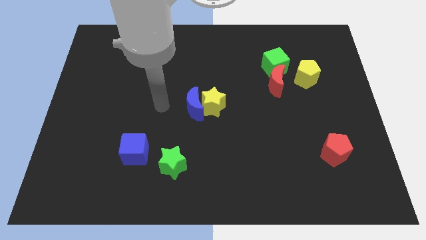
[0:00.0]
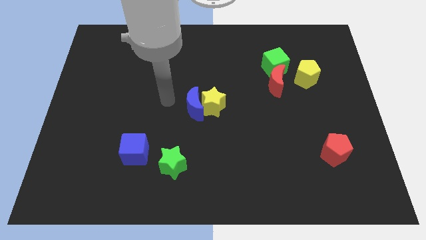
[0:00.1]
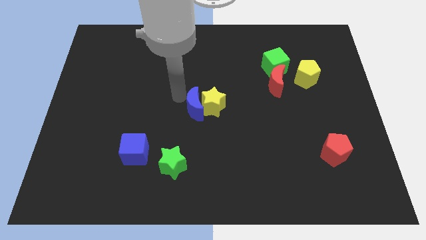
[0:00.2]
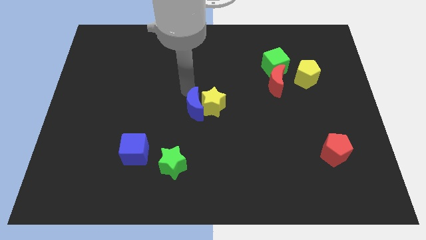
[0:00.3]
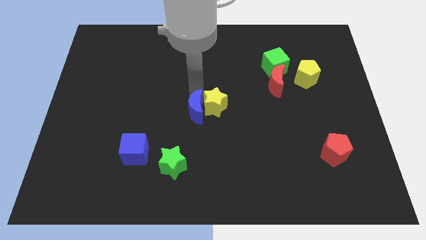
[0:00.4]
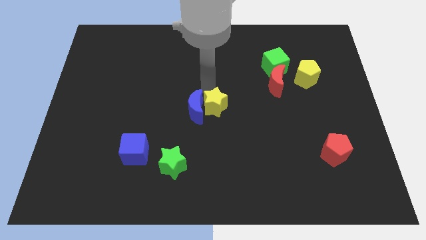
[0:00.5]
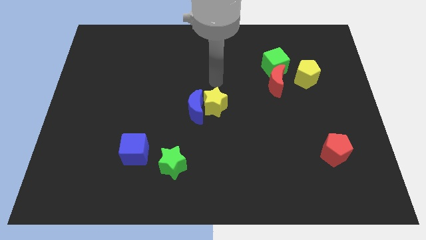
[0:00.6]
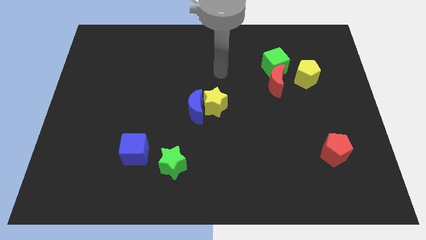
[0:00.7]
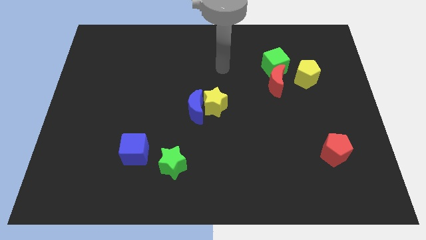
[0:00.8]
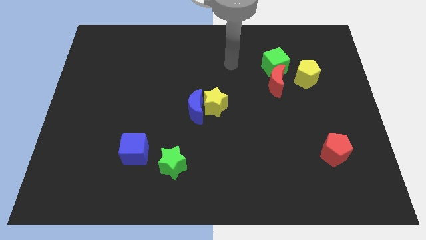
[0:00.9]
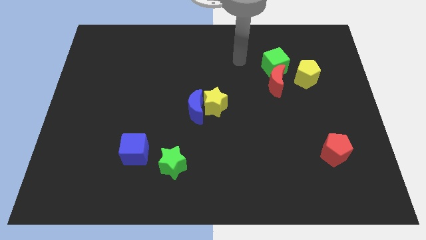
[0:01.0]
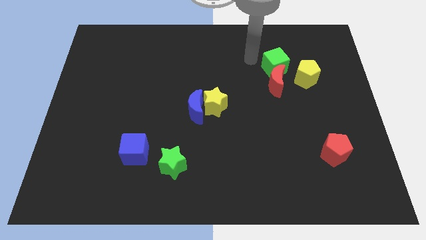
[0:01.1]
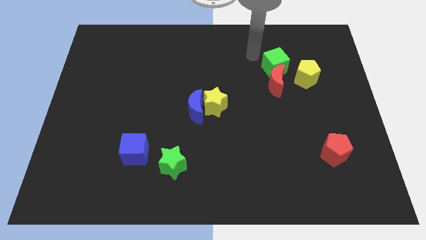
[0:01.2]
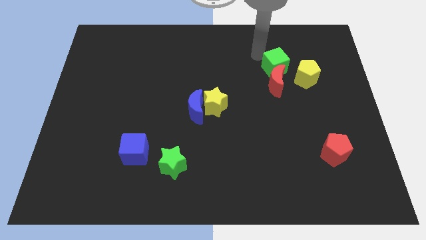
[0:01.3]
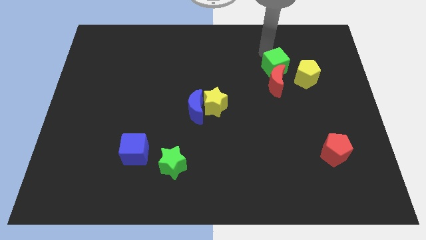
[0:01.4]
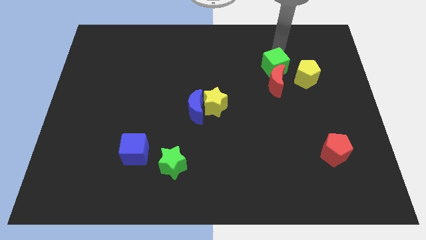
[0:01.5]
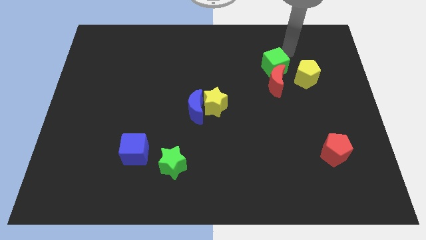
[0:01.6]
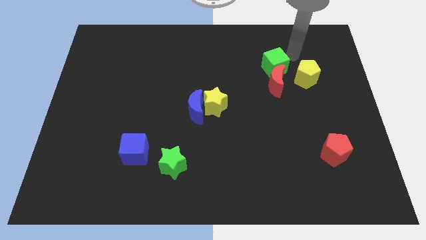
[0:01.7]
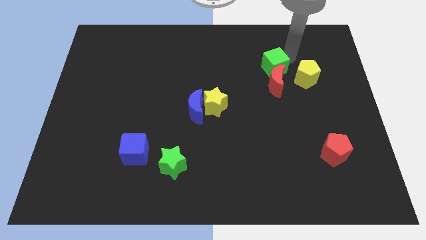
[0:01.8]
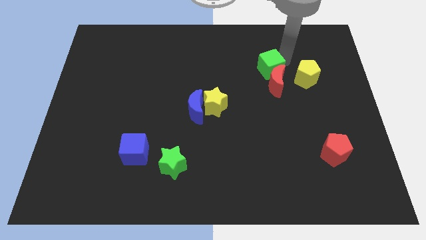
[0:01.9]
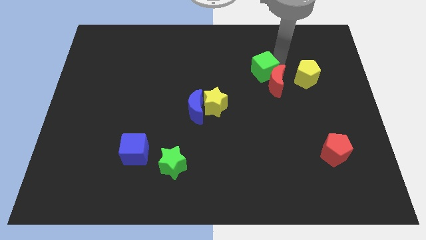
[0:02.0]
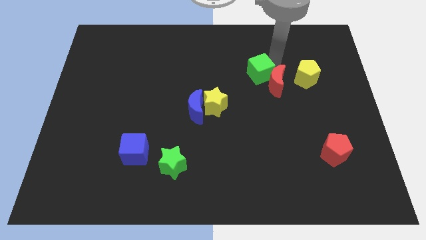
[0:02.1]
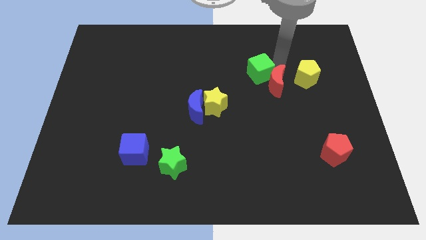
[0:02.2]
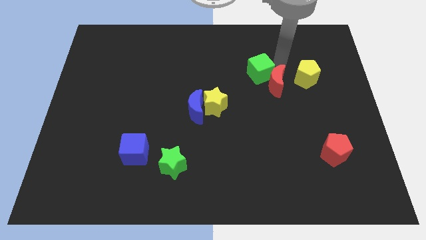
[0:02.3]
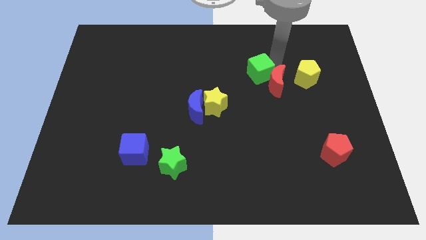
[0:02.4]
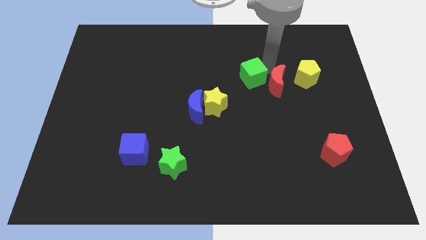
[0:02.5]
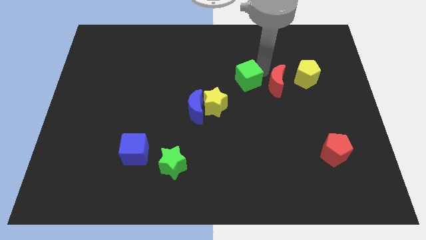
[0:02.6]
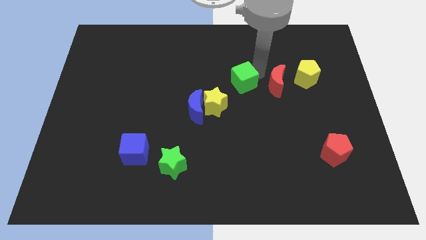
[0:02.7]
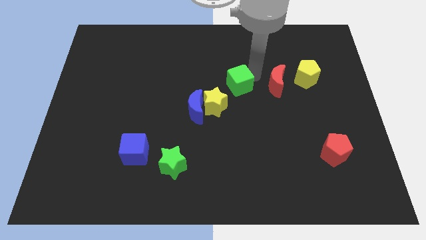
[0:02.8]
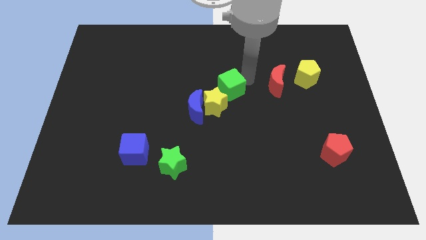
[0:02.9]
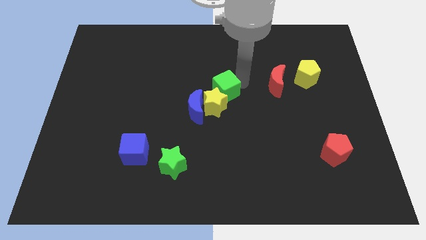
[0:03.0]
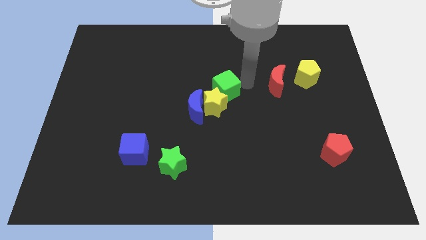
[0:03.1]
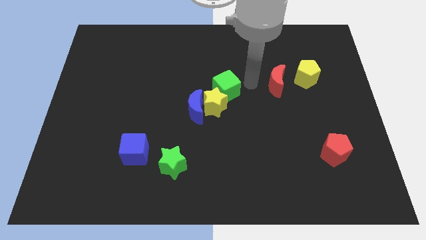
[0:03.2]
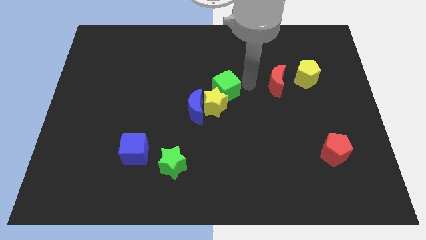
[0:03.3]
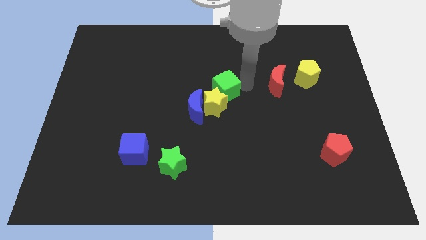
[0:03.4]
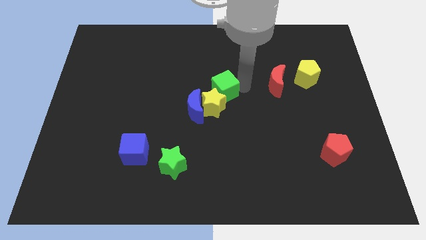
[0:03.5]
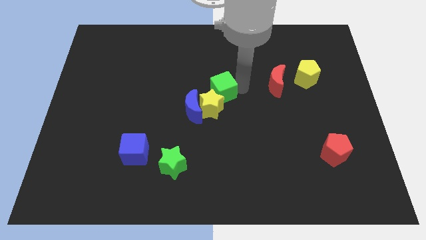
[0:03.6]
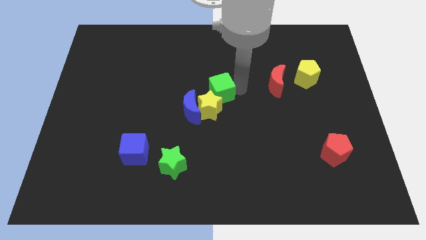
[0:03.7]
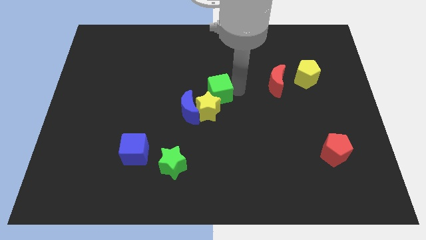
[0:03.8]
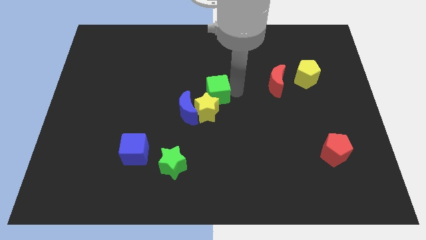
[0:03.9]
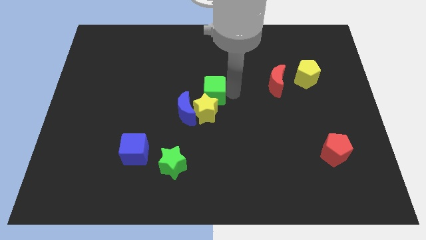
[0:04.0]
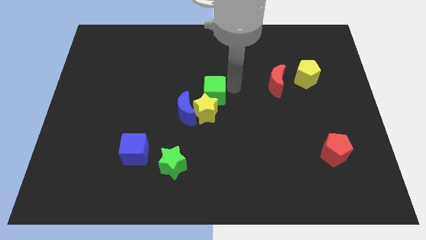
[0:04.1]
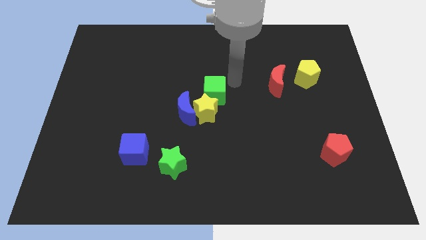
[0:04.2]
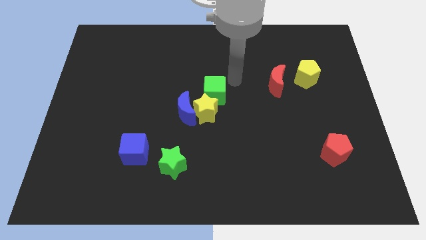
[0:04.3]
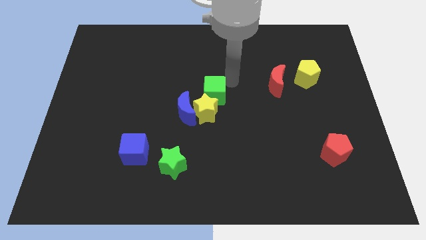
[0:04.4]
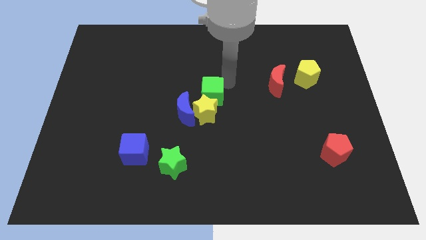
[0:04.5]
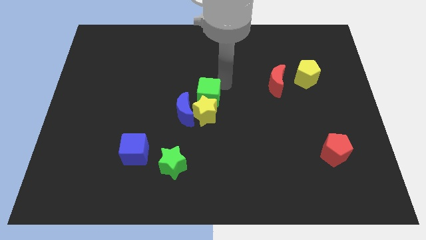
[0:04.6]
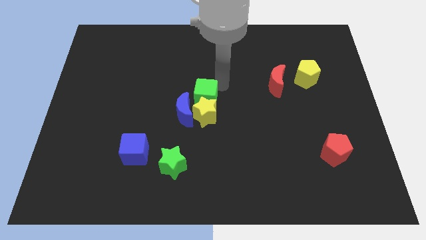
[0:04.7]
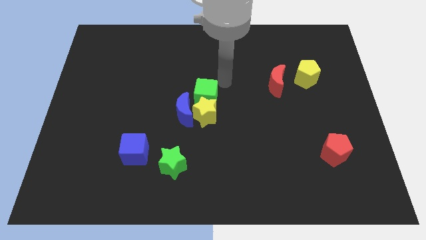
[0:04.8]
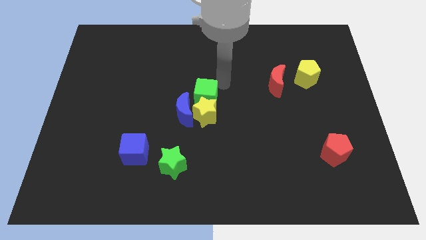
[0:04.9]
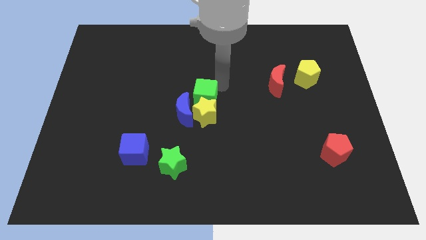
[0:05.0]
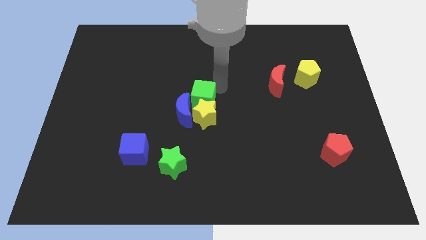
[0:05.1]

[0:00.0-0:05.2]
put the green cube close to the blue moon

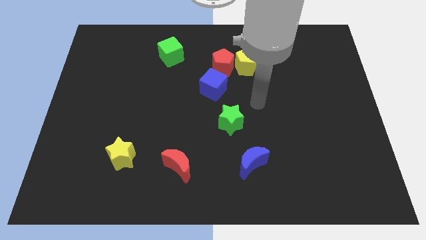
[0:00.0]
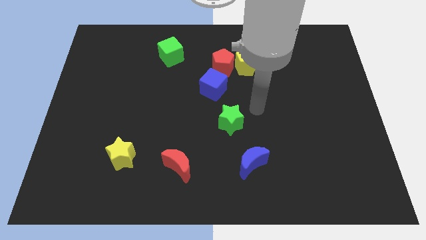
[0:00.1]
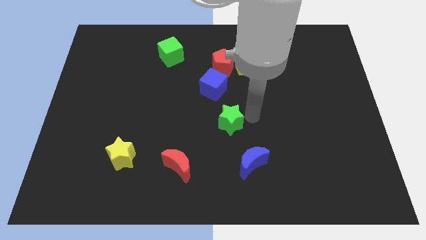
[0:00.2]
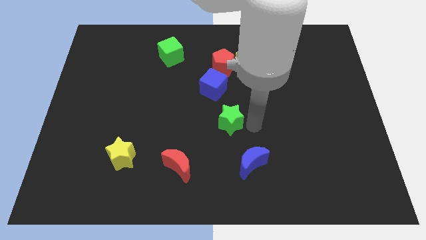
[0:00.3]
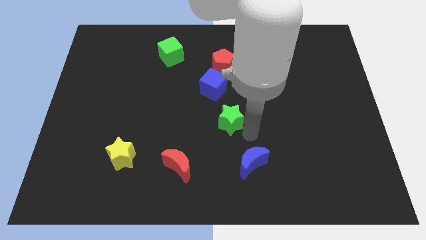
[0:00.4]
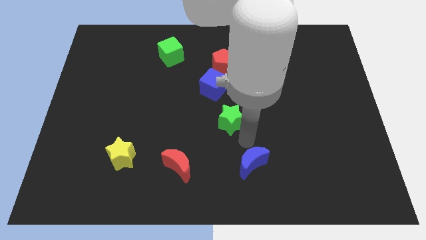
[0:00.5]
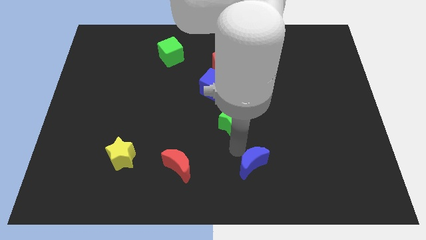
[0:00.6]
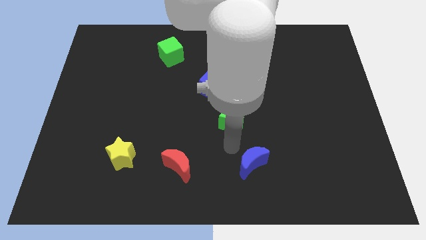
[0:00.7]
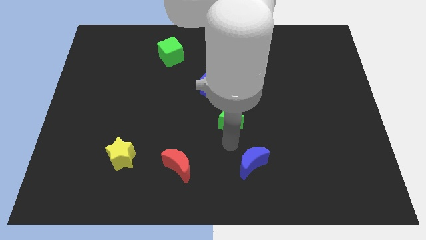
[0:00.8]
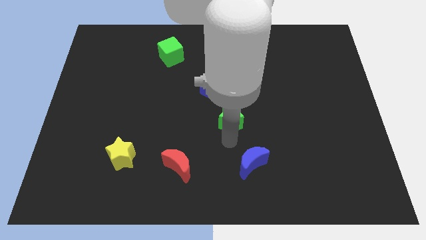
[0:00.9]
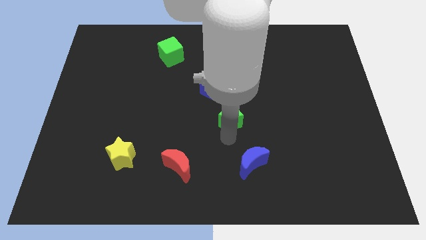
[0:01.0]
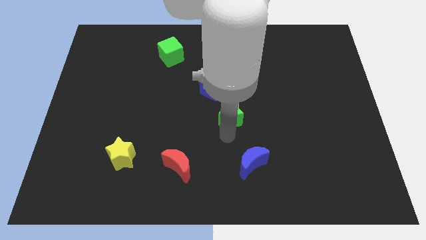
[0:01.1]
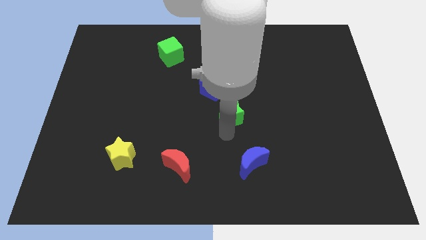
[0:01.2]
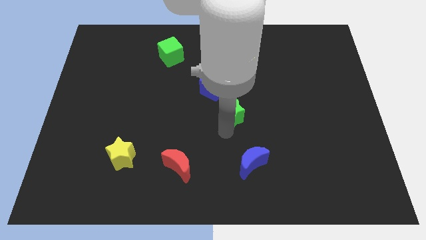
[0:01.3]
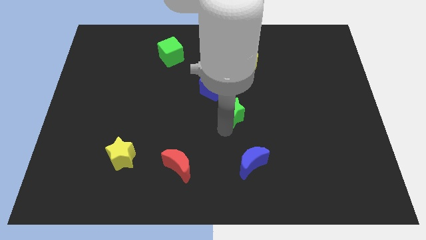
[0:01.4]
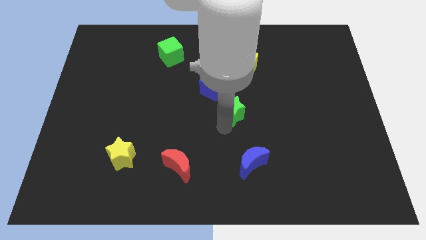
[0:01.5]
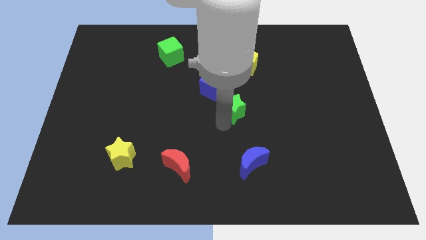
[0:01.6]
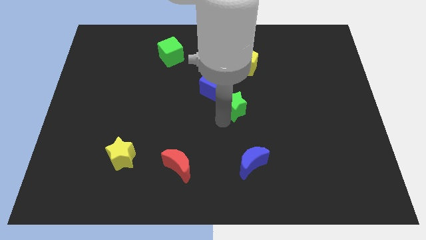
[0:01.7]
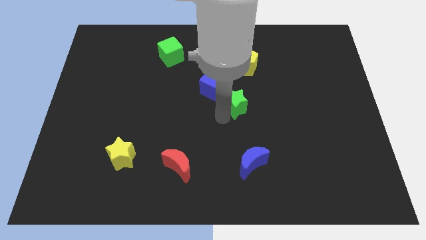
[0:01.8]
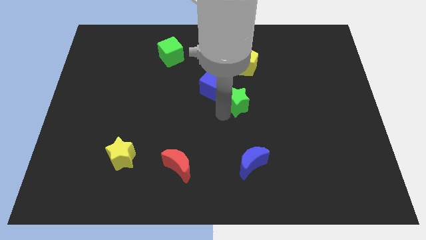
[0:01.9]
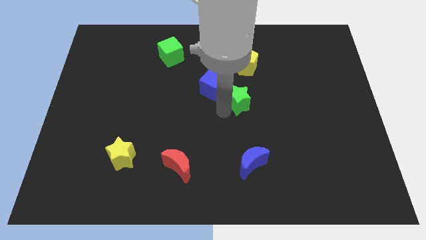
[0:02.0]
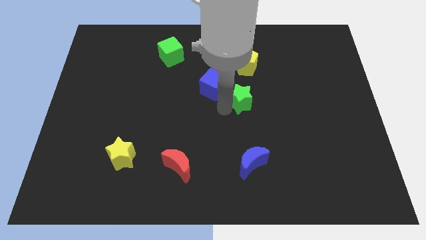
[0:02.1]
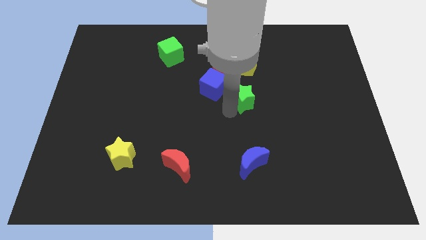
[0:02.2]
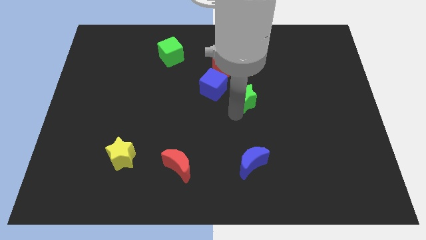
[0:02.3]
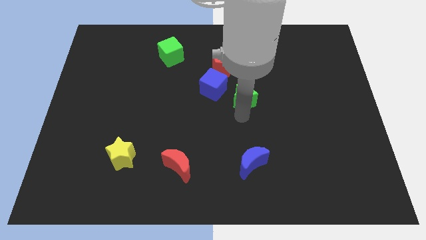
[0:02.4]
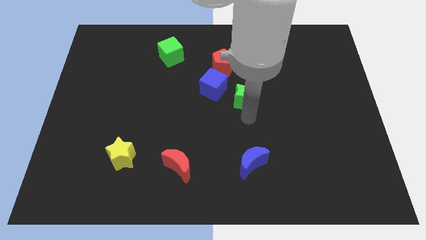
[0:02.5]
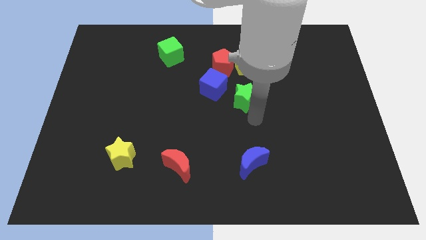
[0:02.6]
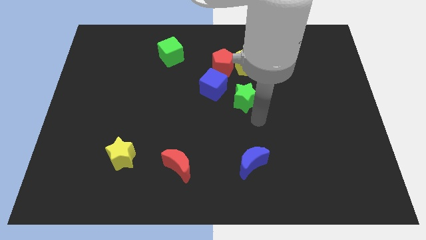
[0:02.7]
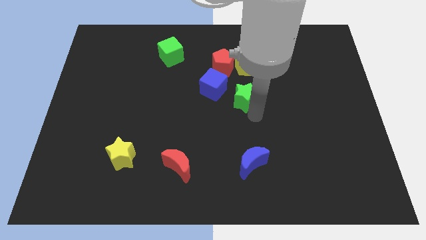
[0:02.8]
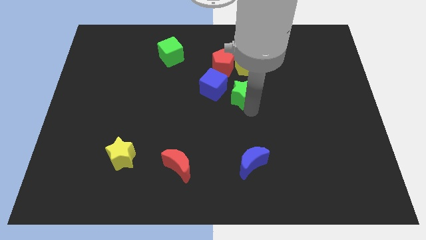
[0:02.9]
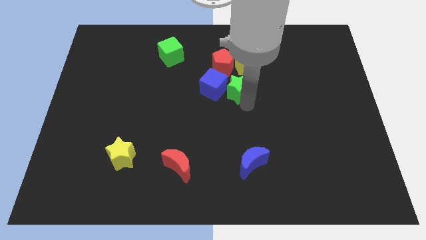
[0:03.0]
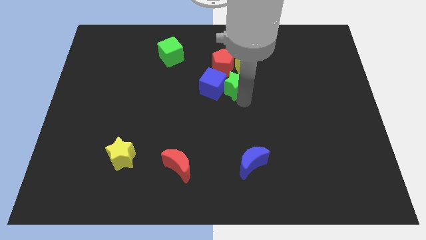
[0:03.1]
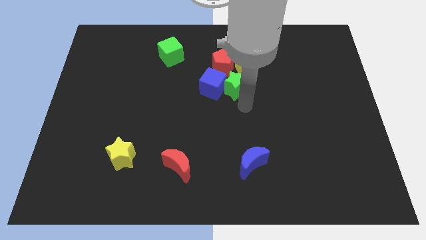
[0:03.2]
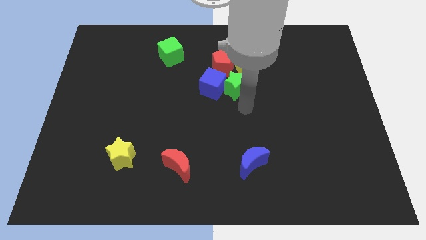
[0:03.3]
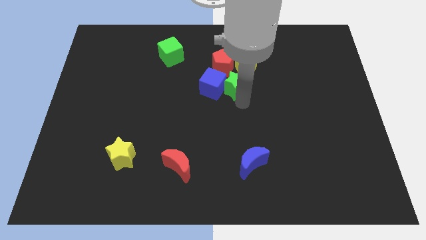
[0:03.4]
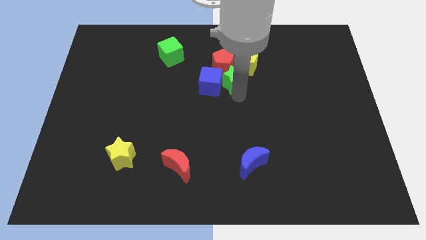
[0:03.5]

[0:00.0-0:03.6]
move the green star towards the red pentagon
